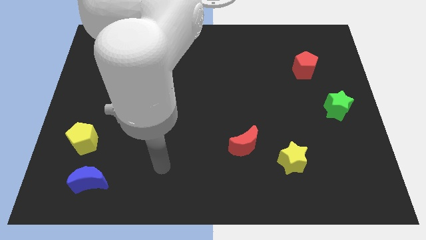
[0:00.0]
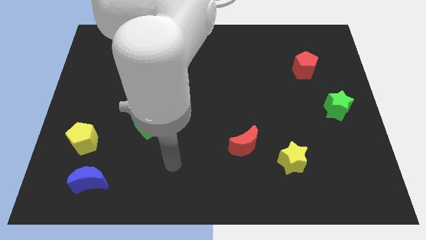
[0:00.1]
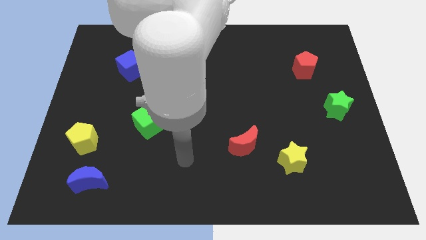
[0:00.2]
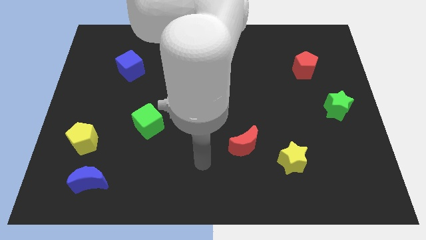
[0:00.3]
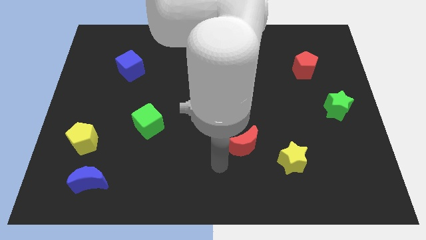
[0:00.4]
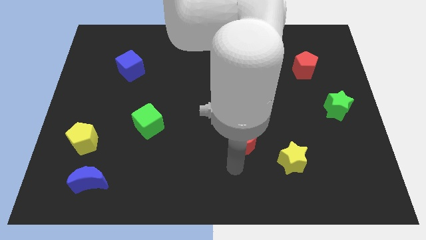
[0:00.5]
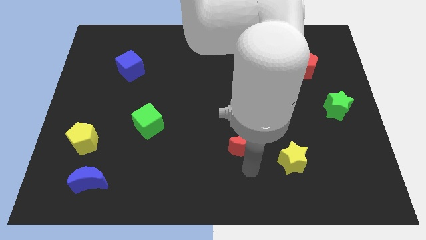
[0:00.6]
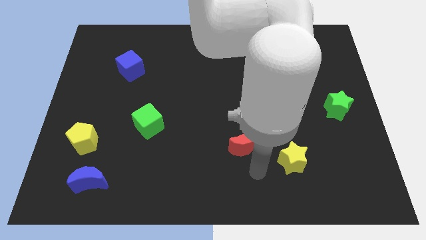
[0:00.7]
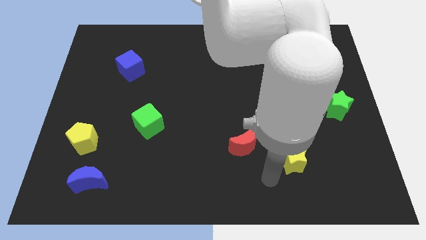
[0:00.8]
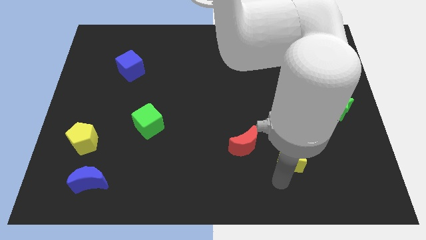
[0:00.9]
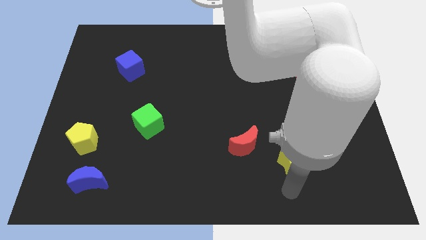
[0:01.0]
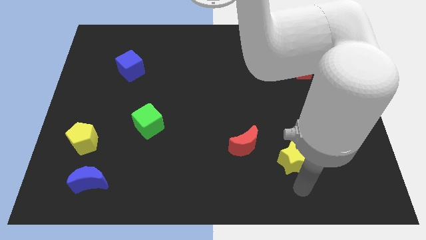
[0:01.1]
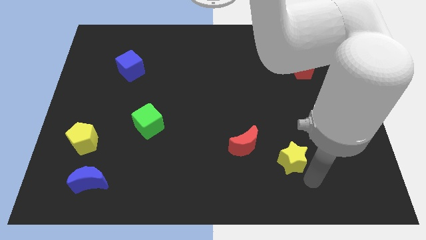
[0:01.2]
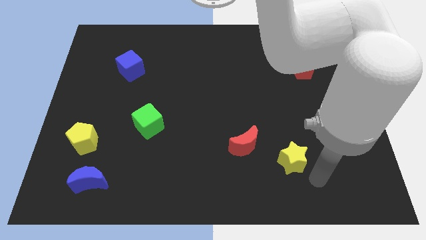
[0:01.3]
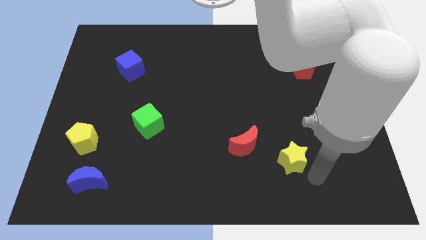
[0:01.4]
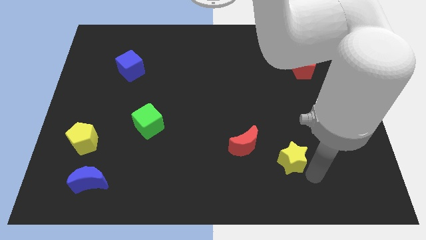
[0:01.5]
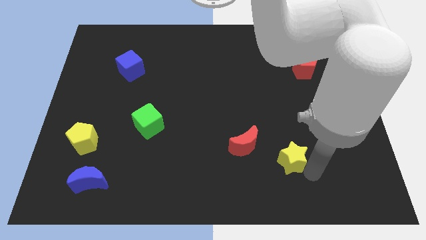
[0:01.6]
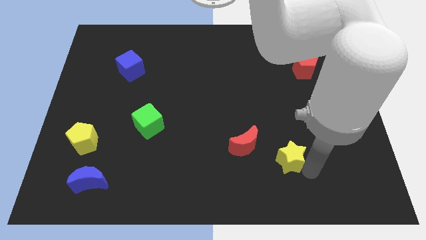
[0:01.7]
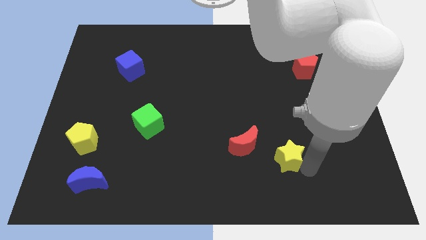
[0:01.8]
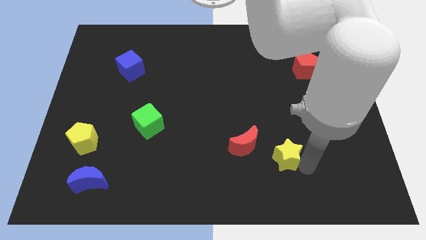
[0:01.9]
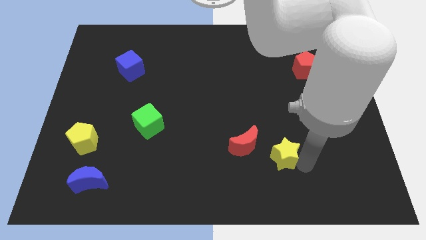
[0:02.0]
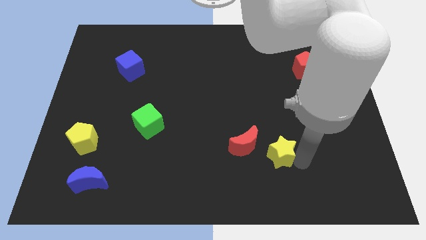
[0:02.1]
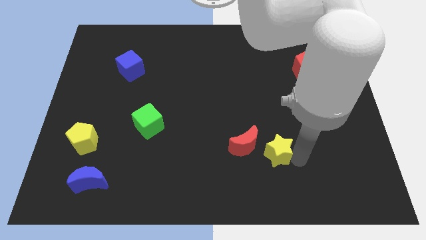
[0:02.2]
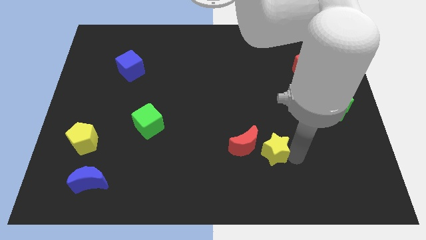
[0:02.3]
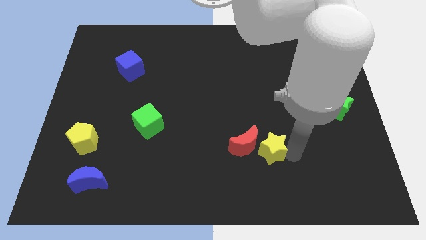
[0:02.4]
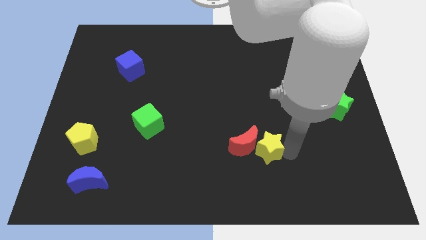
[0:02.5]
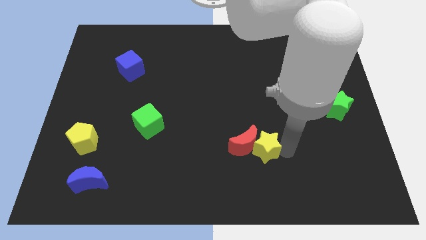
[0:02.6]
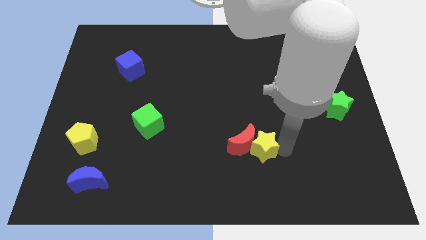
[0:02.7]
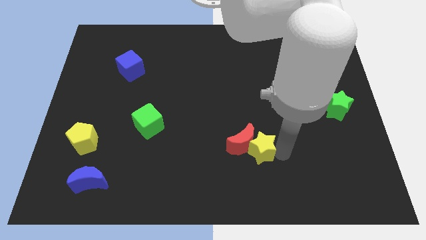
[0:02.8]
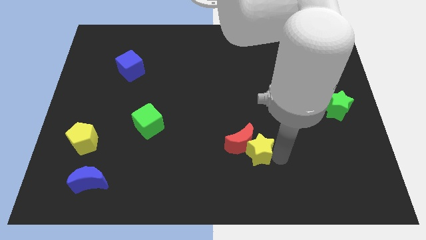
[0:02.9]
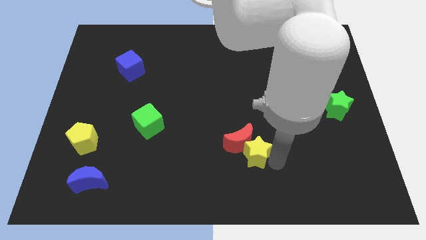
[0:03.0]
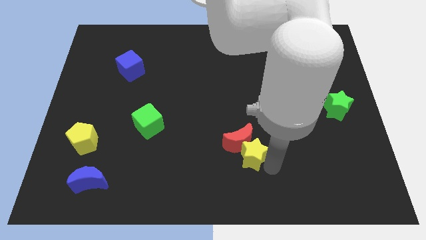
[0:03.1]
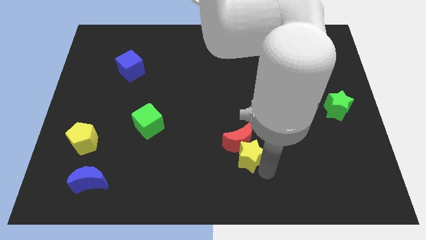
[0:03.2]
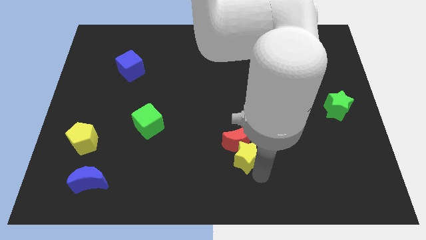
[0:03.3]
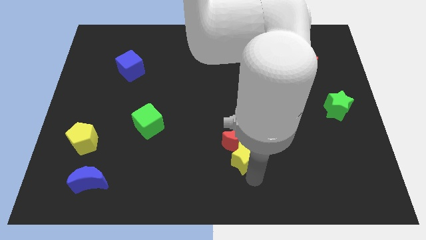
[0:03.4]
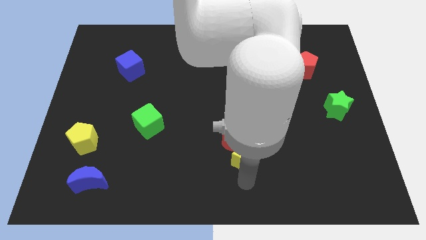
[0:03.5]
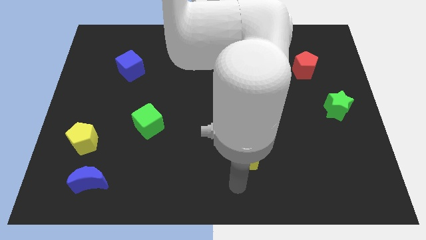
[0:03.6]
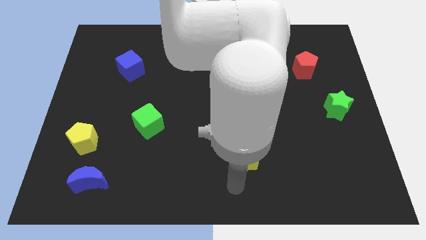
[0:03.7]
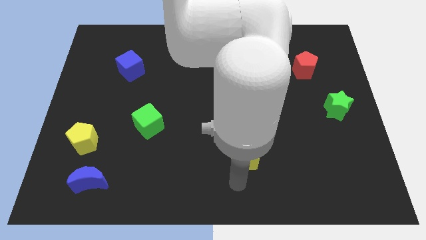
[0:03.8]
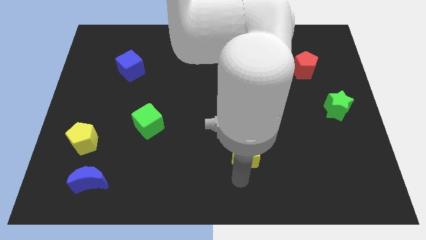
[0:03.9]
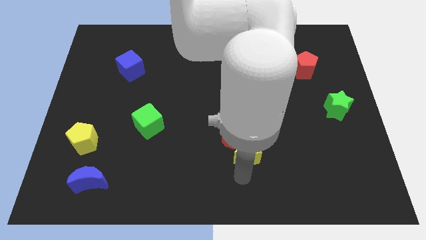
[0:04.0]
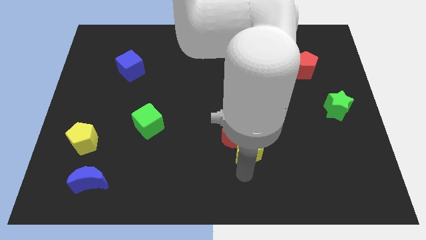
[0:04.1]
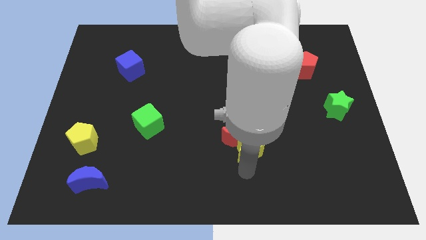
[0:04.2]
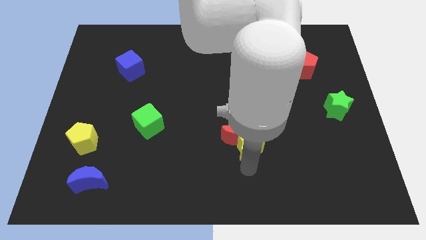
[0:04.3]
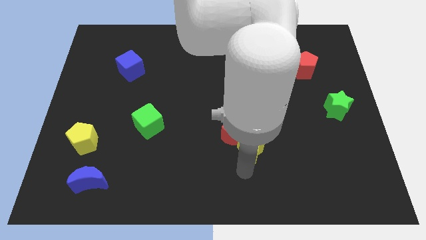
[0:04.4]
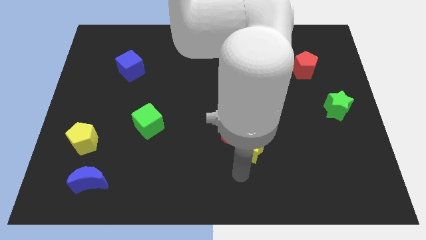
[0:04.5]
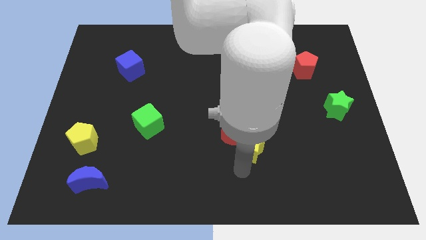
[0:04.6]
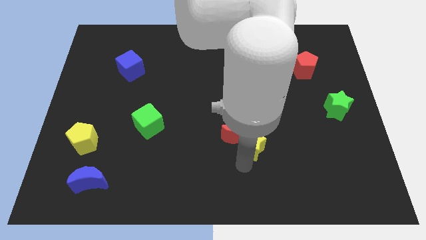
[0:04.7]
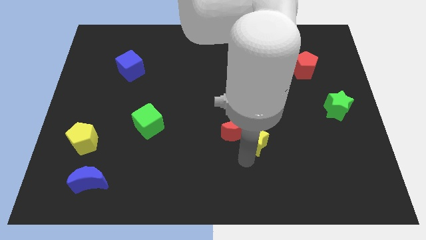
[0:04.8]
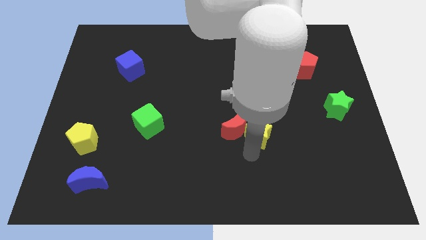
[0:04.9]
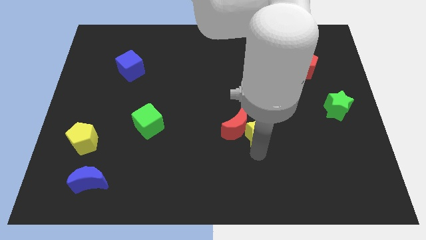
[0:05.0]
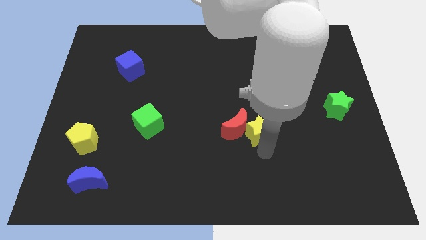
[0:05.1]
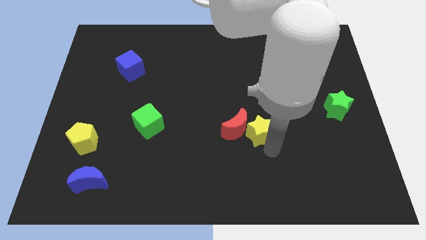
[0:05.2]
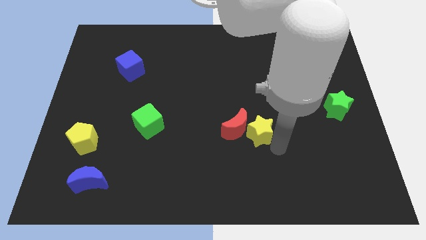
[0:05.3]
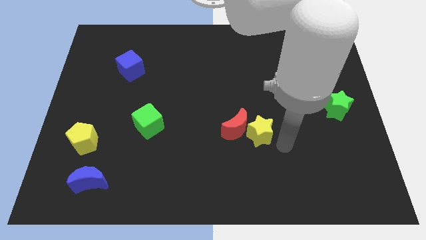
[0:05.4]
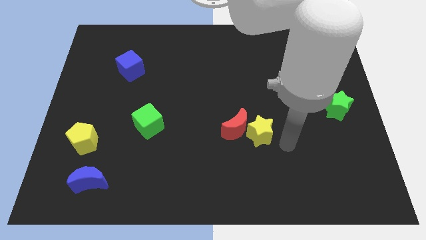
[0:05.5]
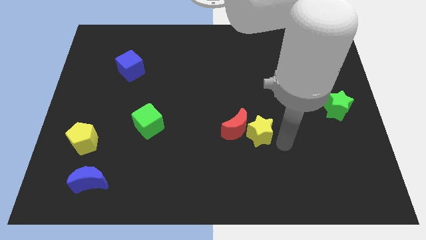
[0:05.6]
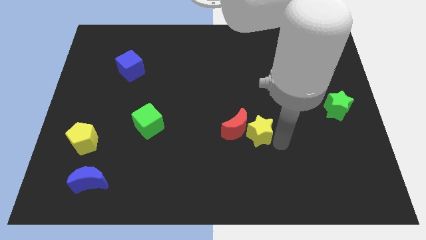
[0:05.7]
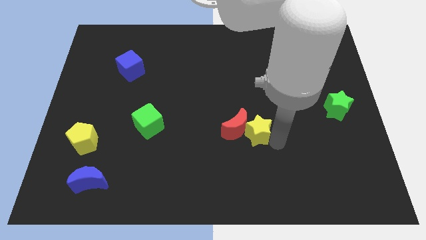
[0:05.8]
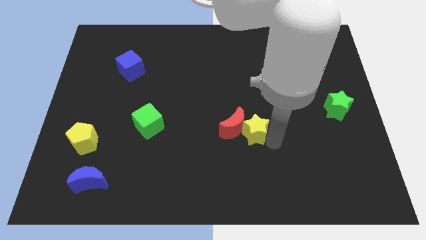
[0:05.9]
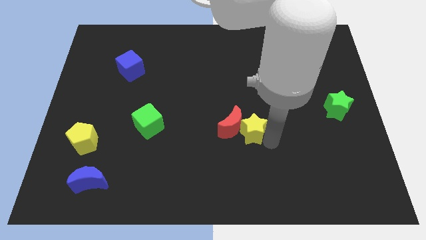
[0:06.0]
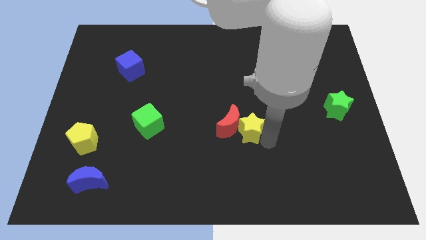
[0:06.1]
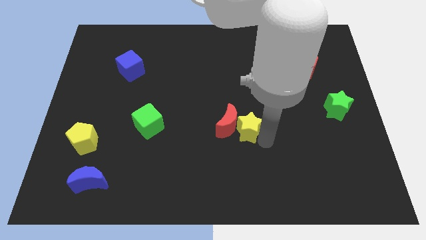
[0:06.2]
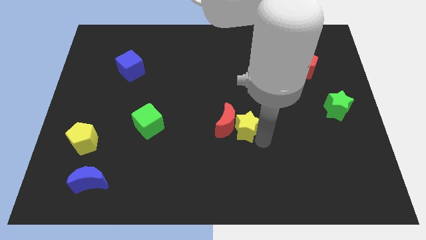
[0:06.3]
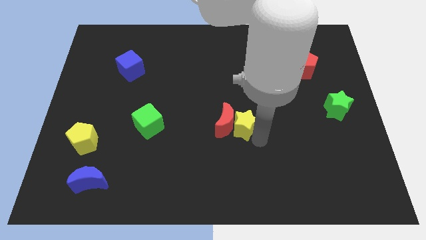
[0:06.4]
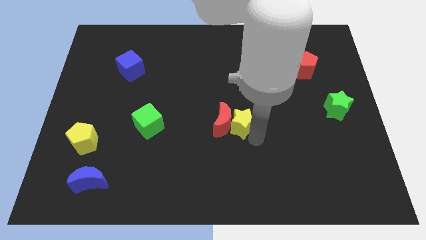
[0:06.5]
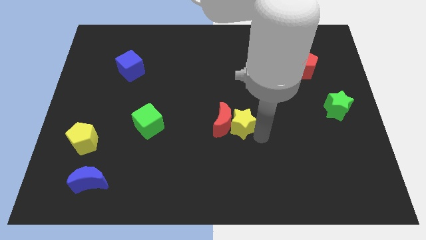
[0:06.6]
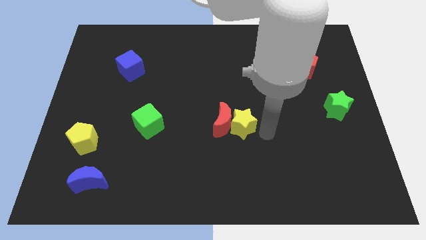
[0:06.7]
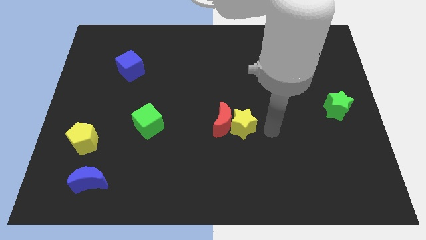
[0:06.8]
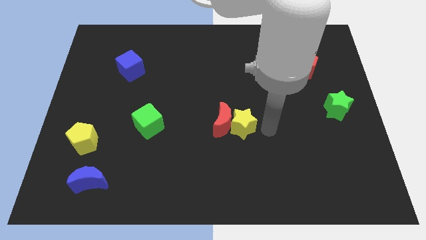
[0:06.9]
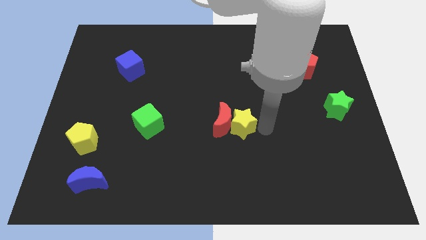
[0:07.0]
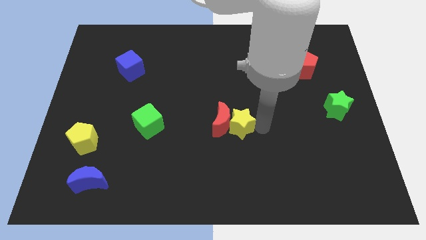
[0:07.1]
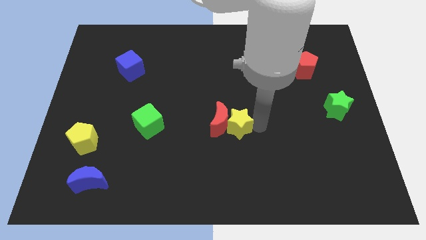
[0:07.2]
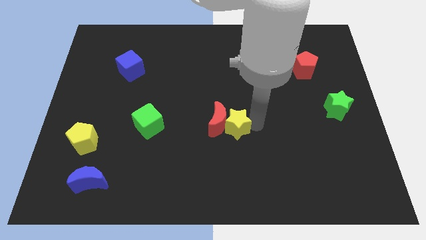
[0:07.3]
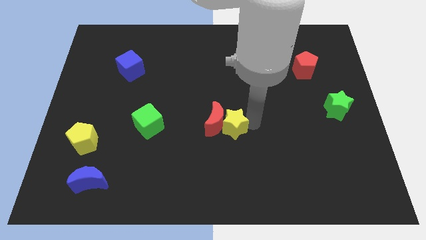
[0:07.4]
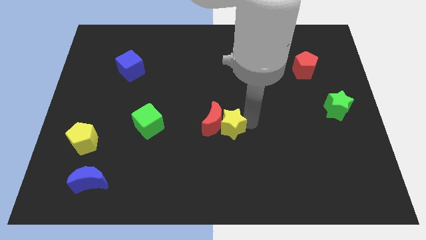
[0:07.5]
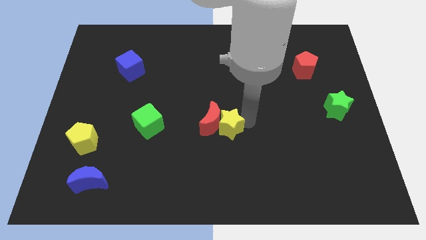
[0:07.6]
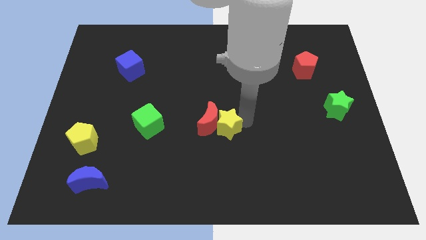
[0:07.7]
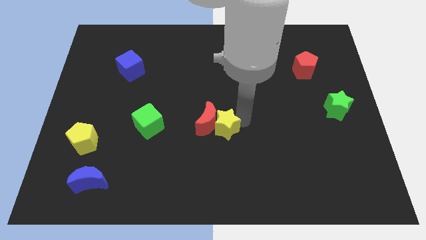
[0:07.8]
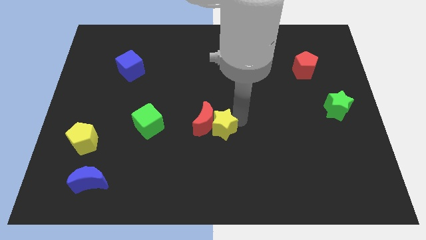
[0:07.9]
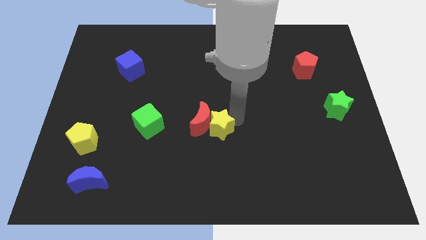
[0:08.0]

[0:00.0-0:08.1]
push the yellow star just right of the green cube

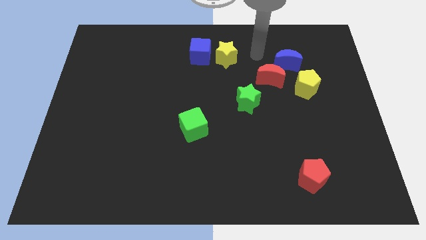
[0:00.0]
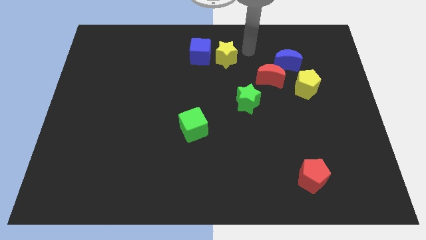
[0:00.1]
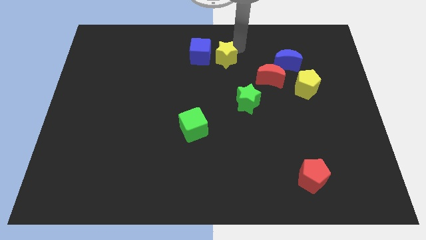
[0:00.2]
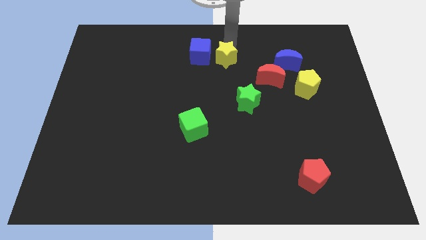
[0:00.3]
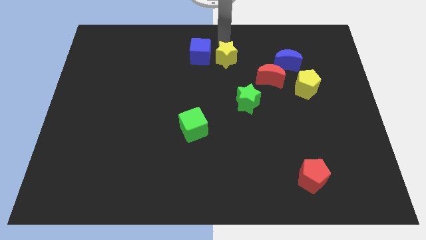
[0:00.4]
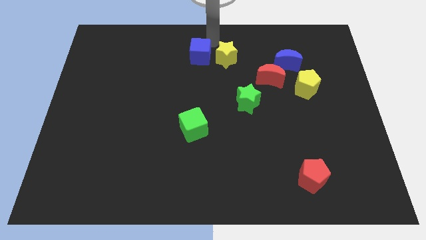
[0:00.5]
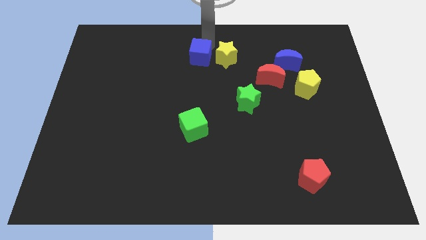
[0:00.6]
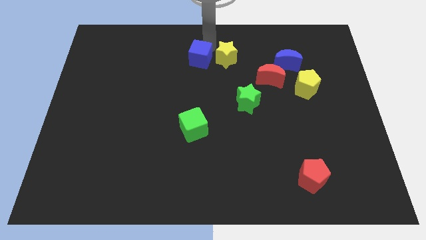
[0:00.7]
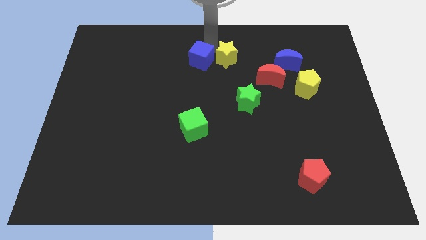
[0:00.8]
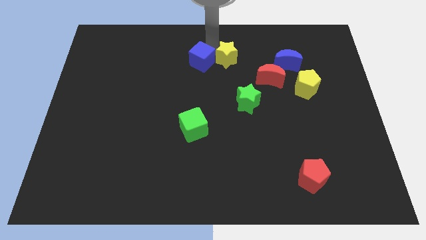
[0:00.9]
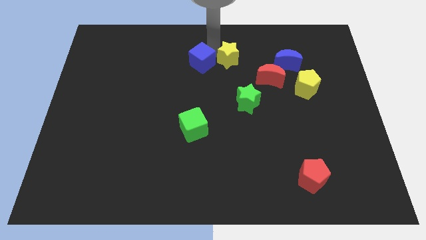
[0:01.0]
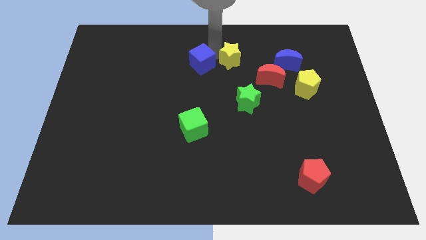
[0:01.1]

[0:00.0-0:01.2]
put the yellow star to the top of the green star
